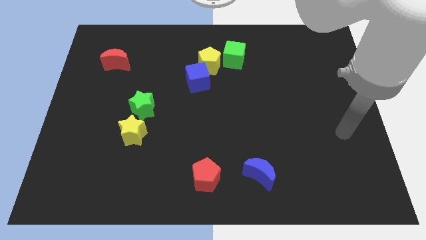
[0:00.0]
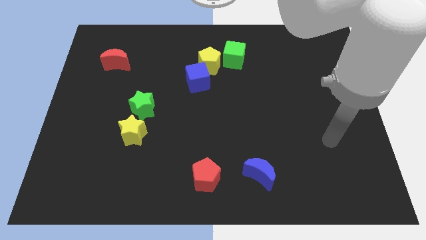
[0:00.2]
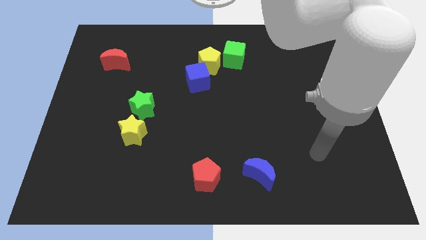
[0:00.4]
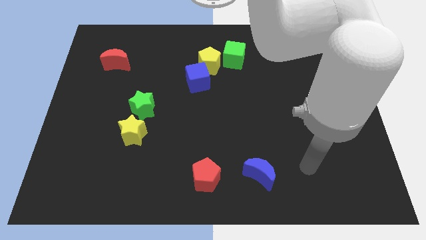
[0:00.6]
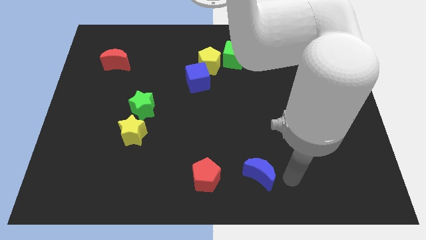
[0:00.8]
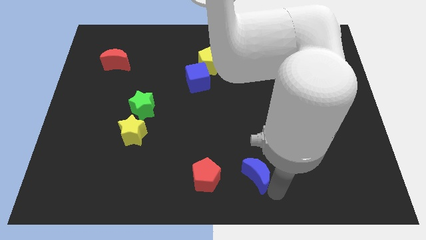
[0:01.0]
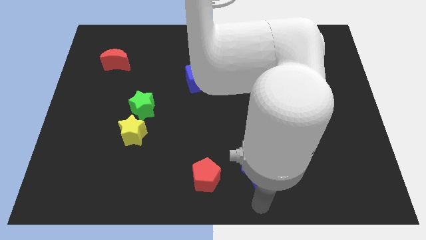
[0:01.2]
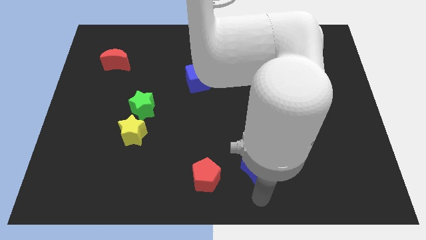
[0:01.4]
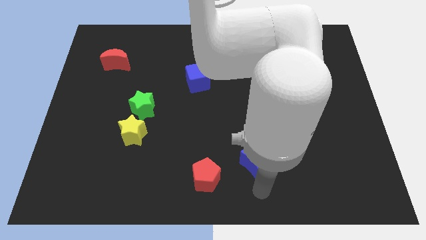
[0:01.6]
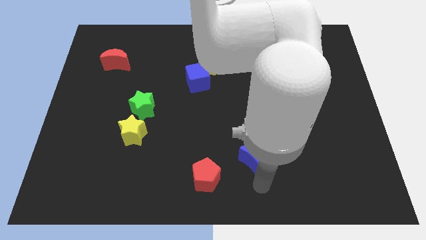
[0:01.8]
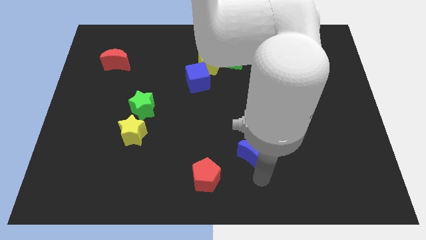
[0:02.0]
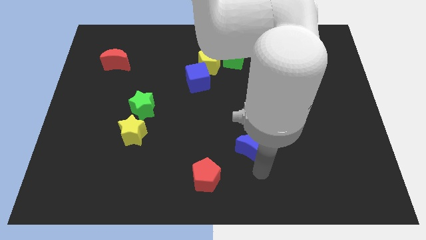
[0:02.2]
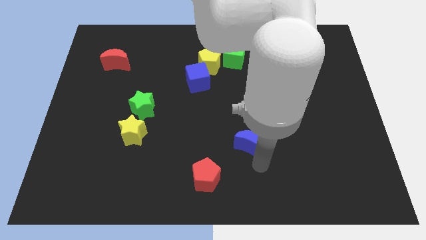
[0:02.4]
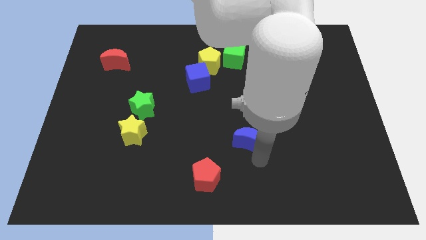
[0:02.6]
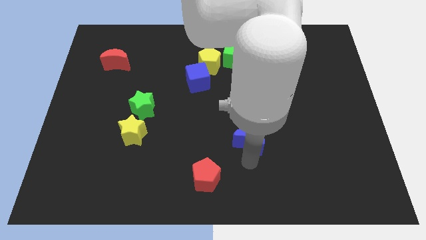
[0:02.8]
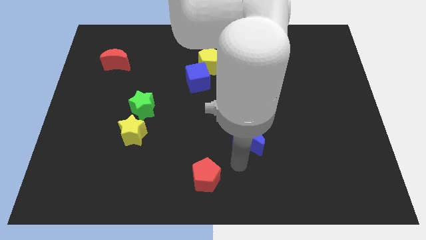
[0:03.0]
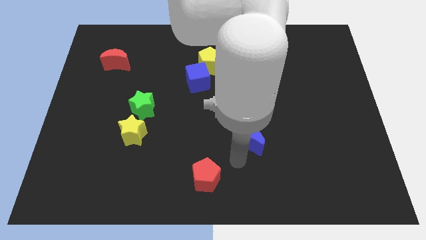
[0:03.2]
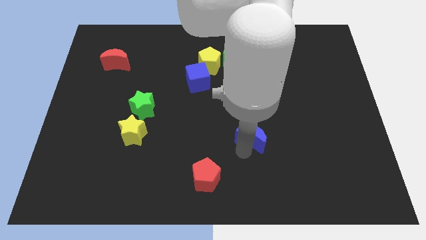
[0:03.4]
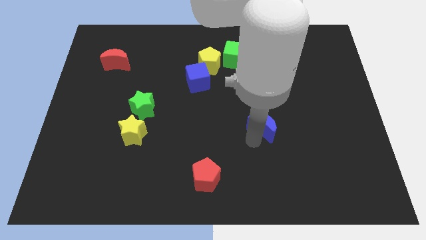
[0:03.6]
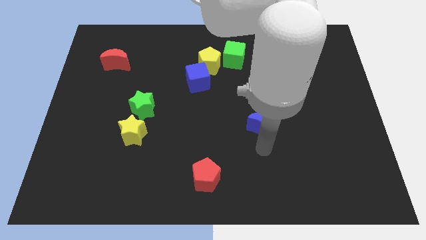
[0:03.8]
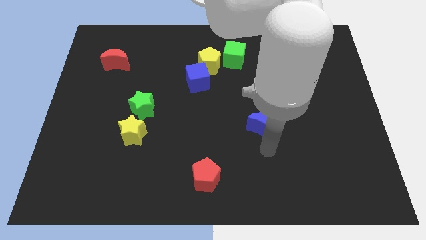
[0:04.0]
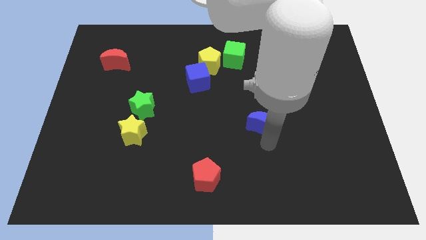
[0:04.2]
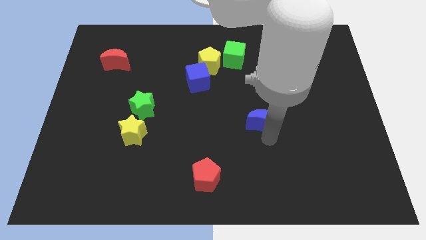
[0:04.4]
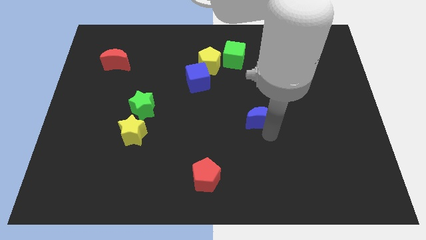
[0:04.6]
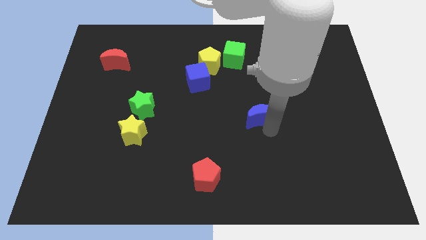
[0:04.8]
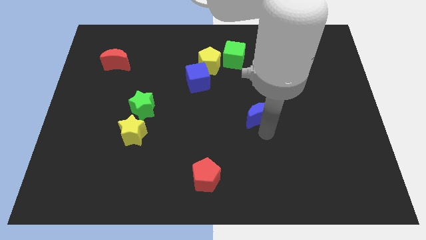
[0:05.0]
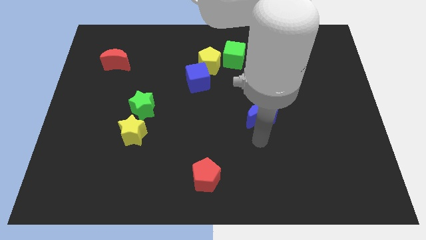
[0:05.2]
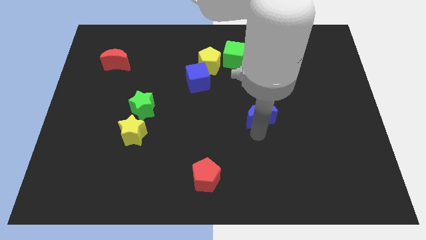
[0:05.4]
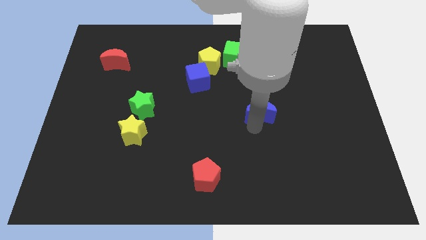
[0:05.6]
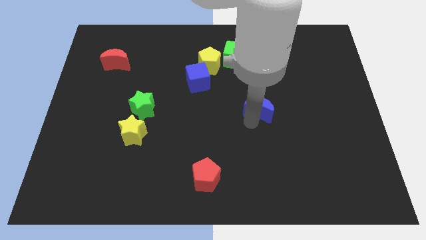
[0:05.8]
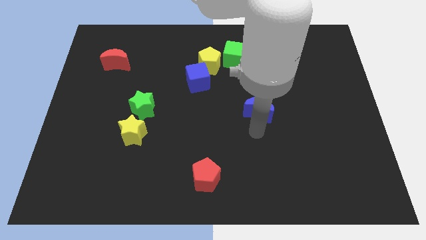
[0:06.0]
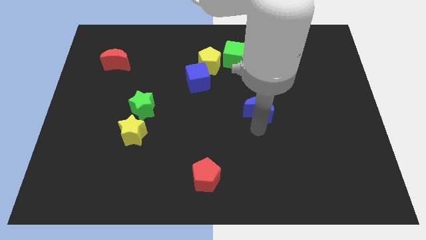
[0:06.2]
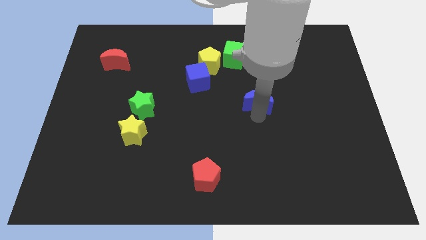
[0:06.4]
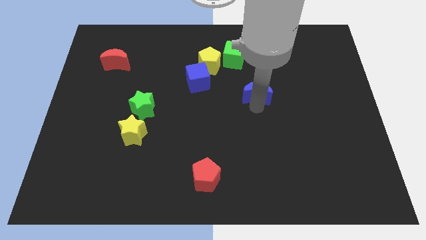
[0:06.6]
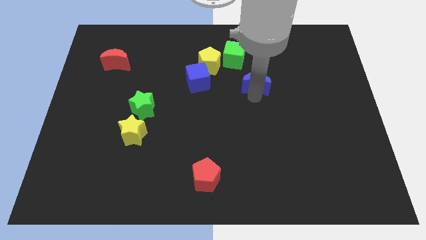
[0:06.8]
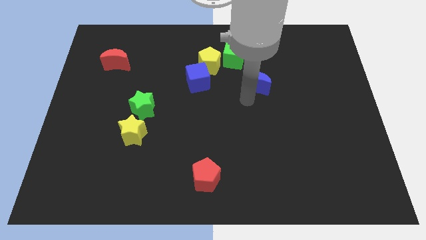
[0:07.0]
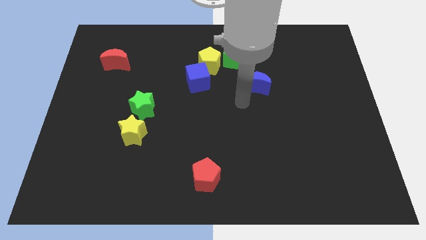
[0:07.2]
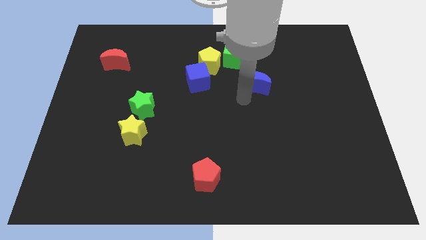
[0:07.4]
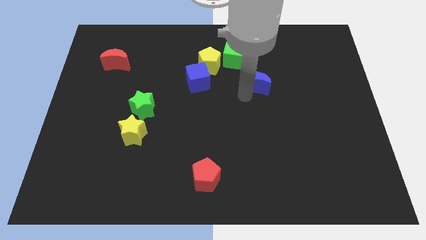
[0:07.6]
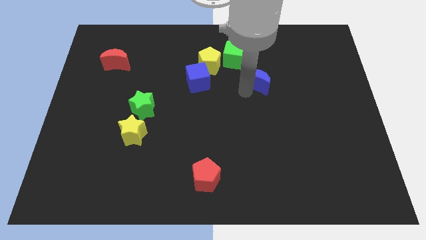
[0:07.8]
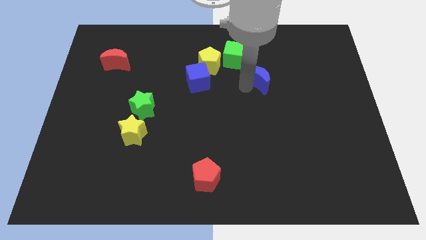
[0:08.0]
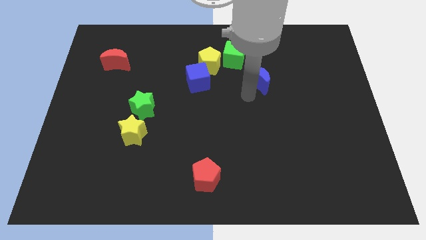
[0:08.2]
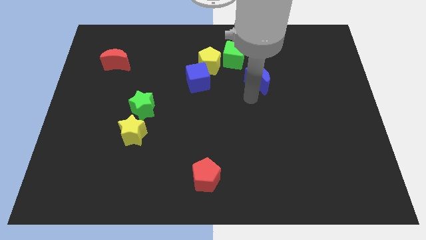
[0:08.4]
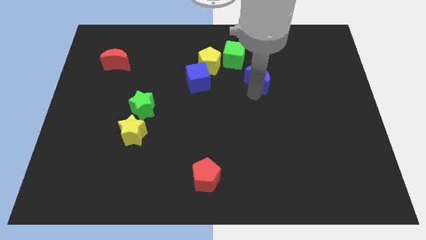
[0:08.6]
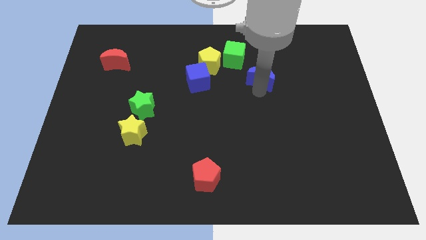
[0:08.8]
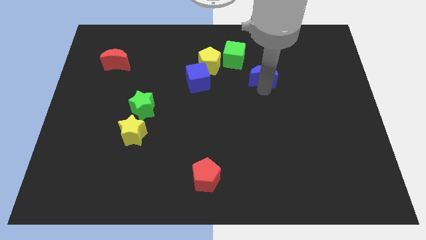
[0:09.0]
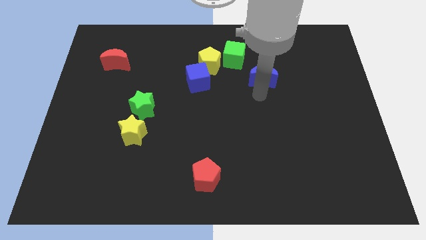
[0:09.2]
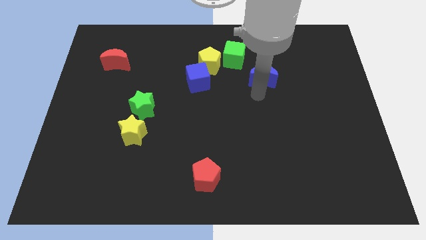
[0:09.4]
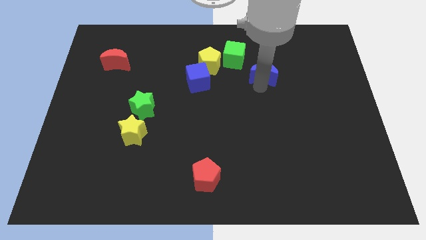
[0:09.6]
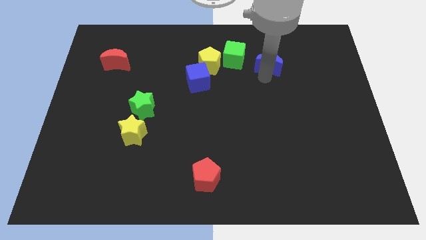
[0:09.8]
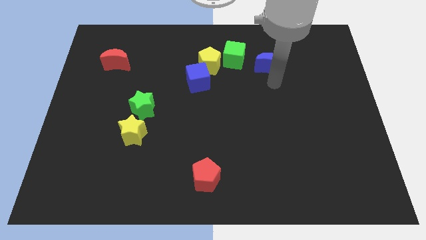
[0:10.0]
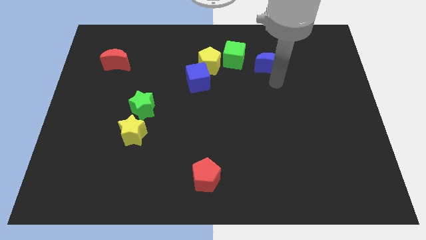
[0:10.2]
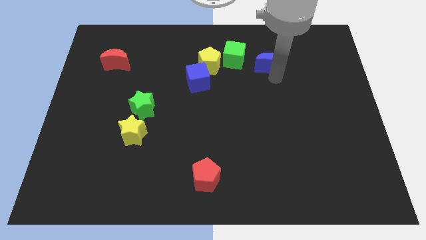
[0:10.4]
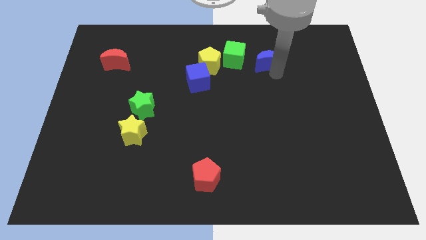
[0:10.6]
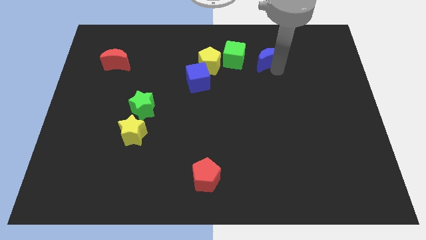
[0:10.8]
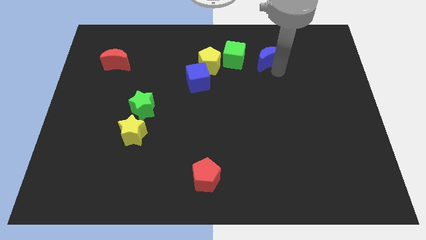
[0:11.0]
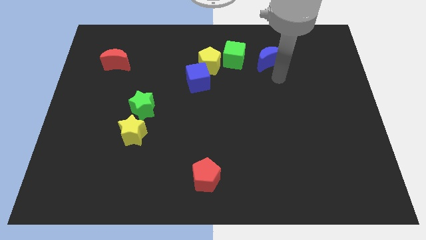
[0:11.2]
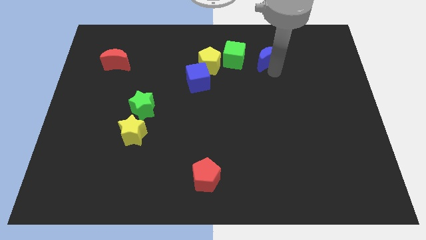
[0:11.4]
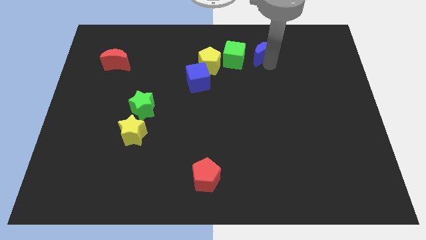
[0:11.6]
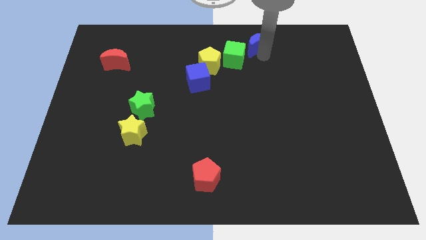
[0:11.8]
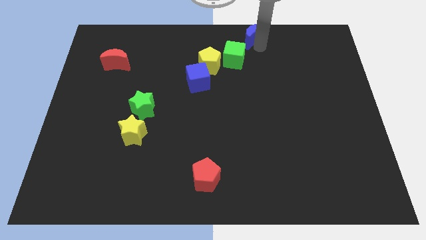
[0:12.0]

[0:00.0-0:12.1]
slide the blue moon to the towards your base
